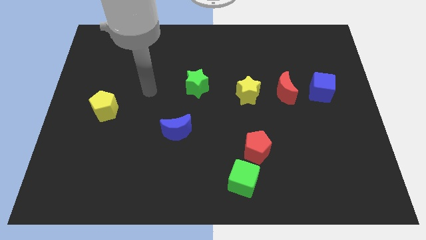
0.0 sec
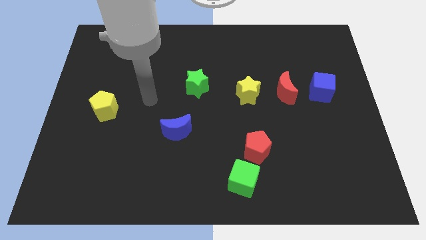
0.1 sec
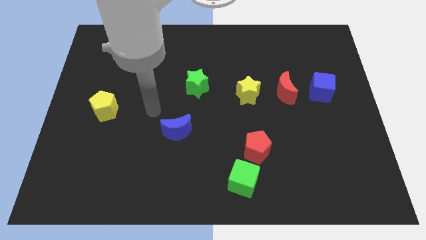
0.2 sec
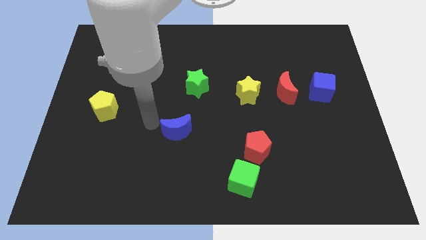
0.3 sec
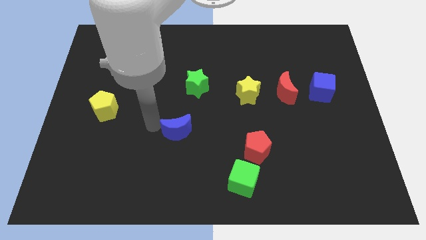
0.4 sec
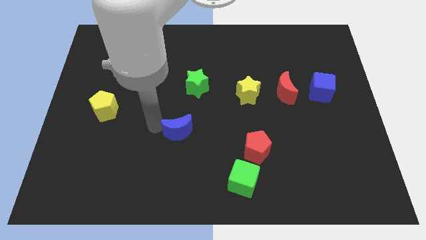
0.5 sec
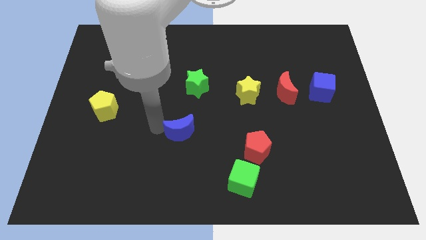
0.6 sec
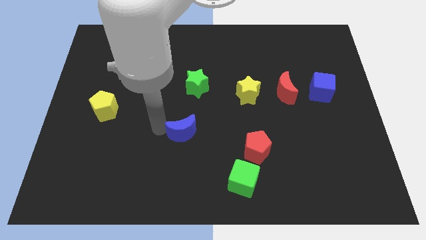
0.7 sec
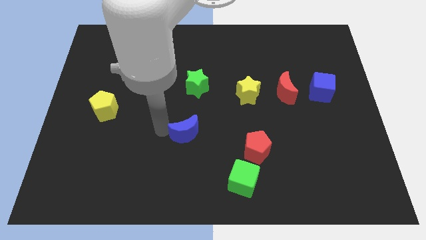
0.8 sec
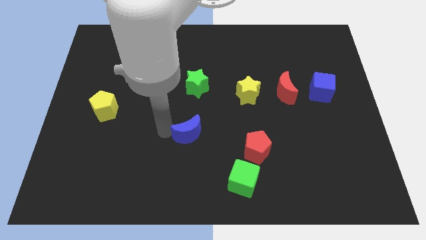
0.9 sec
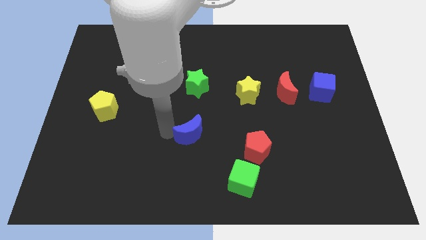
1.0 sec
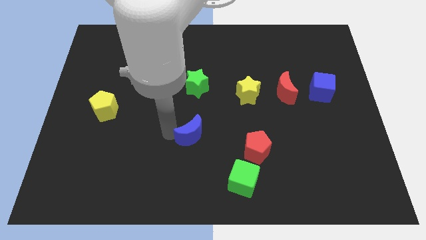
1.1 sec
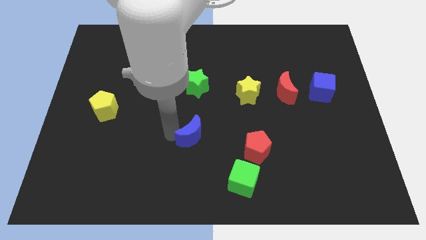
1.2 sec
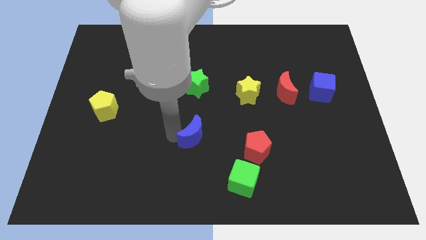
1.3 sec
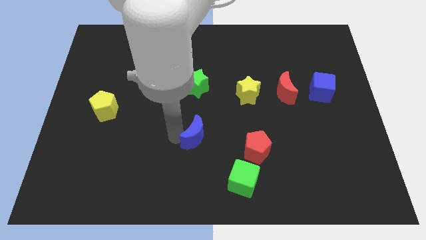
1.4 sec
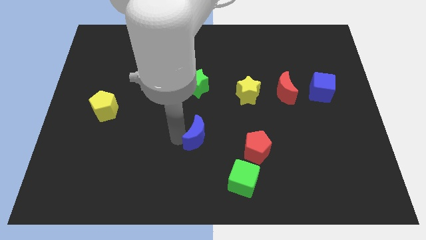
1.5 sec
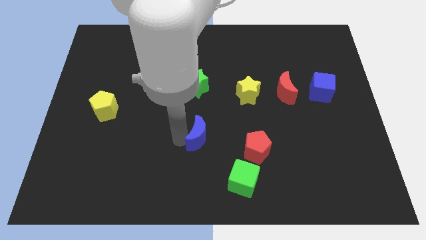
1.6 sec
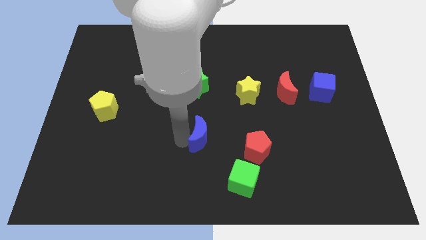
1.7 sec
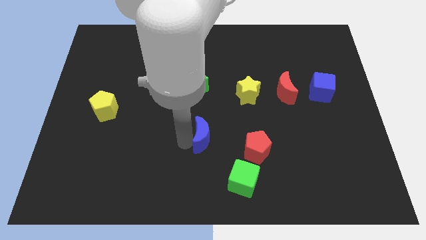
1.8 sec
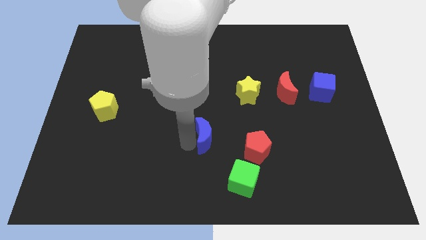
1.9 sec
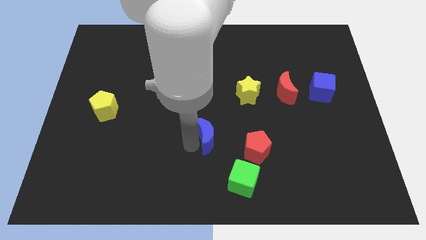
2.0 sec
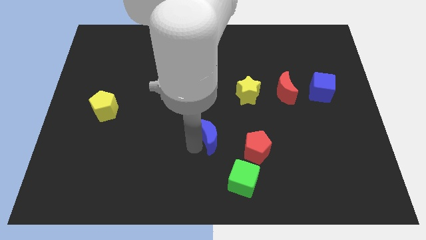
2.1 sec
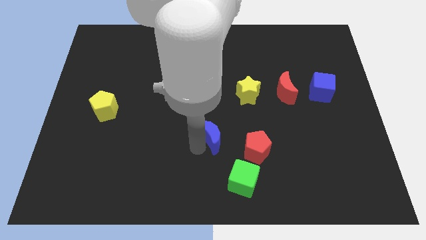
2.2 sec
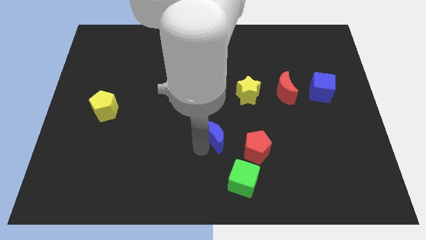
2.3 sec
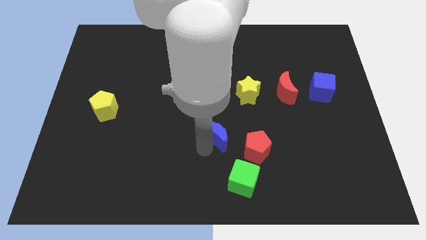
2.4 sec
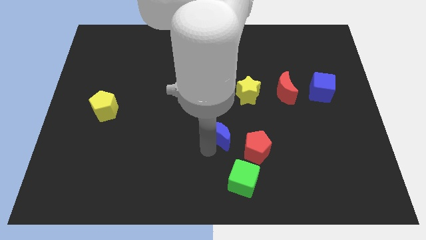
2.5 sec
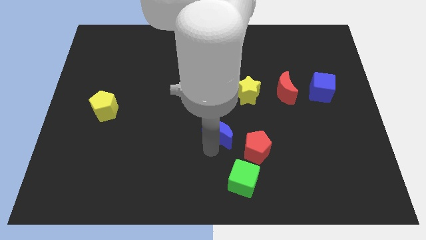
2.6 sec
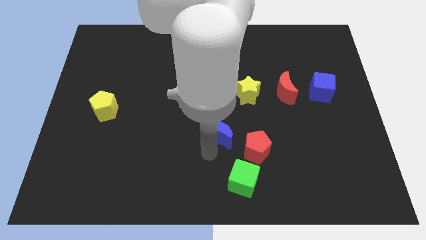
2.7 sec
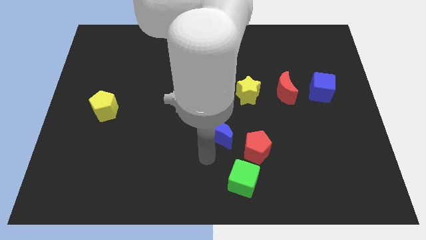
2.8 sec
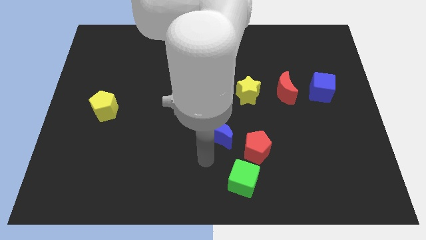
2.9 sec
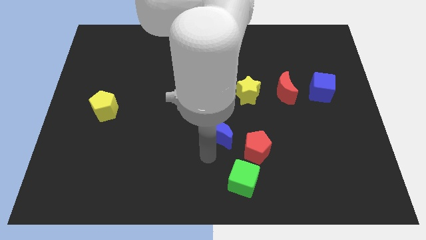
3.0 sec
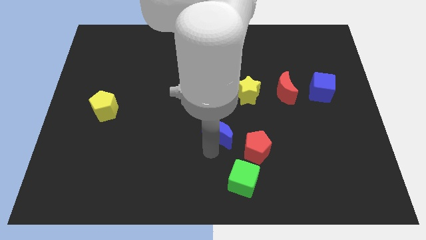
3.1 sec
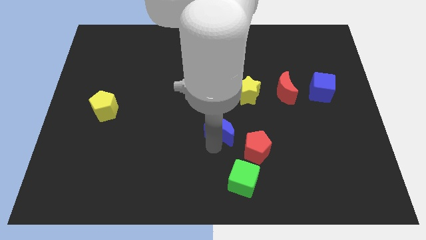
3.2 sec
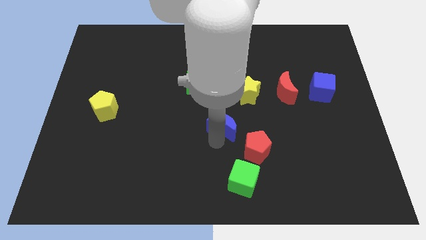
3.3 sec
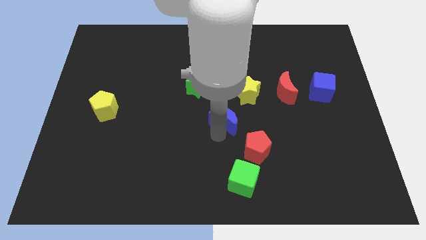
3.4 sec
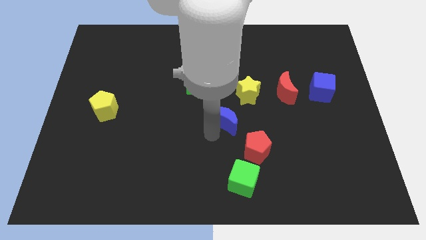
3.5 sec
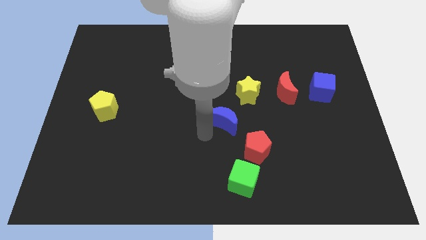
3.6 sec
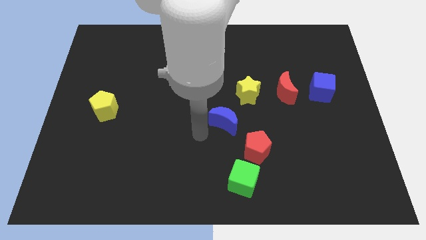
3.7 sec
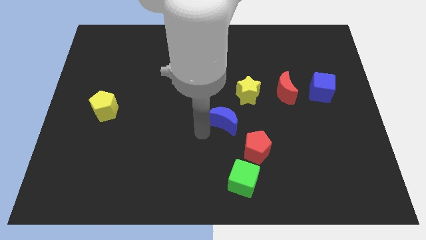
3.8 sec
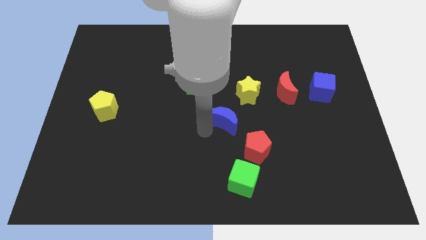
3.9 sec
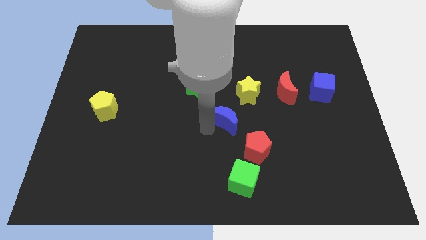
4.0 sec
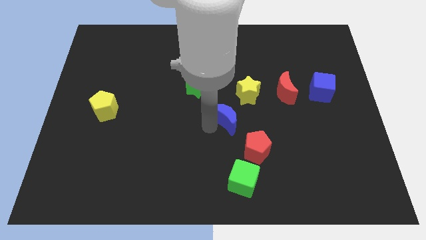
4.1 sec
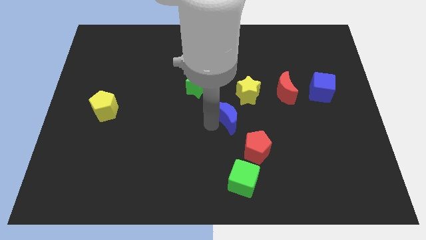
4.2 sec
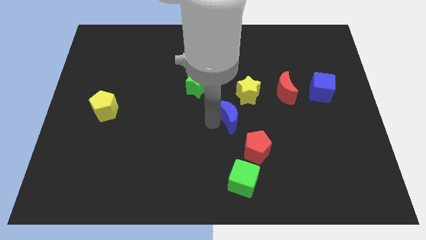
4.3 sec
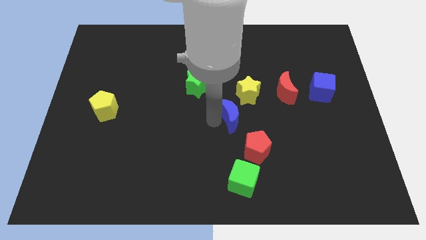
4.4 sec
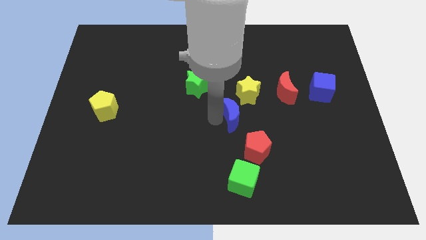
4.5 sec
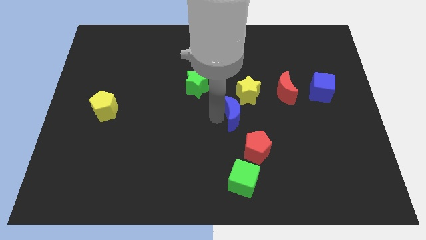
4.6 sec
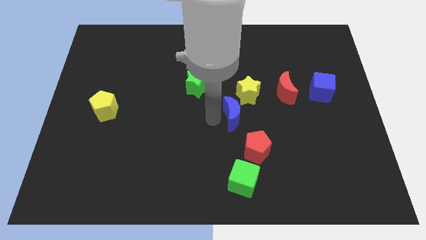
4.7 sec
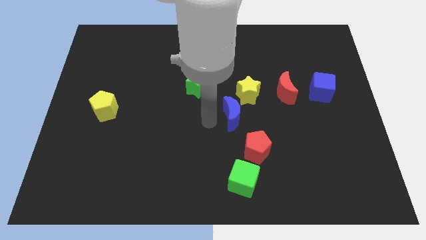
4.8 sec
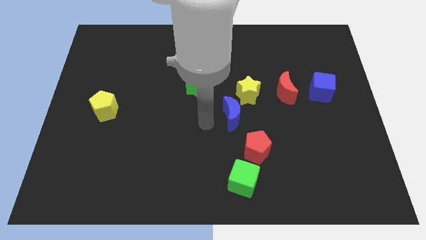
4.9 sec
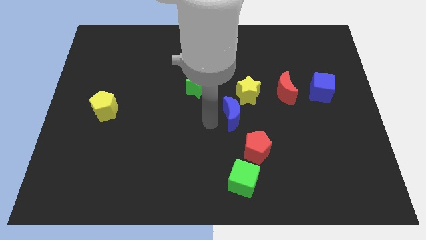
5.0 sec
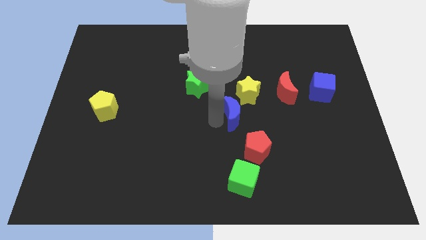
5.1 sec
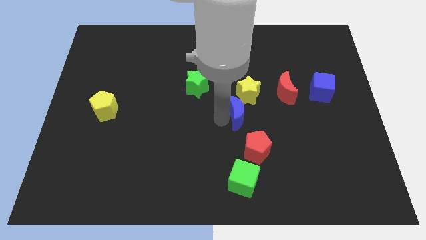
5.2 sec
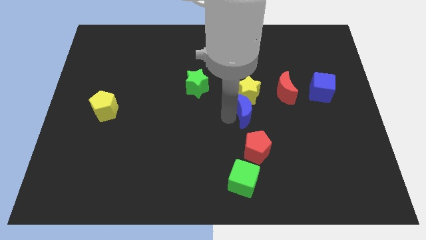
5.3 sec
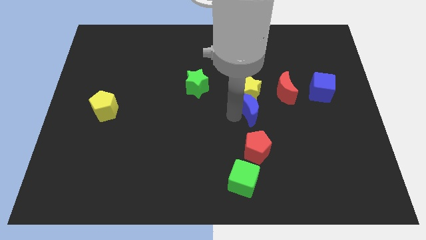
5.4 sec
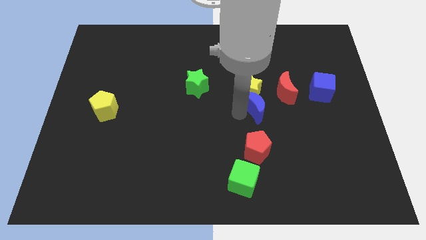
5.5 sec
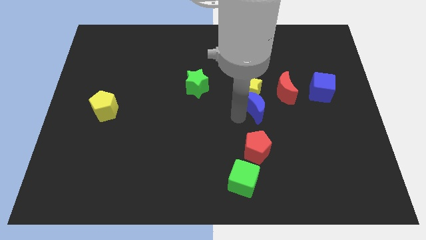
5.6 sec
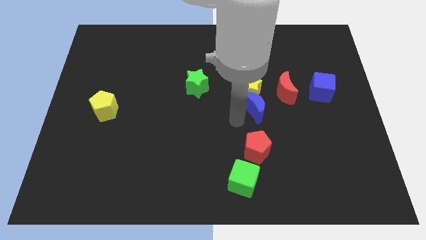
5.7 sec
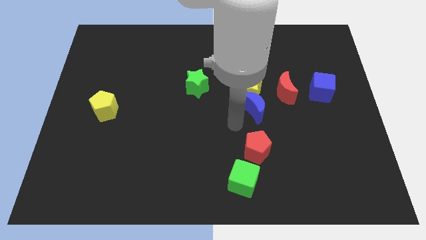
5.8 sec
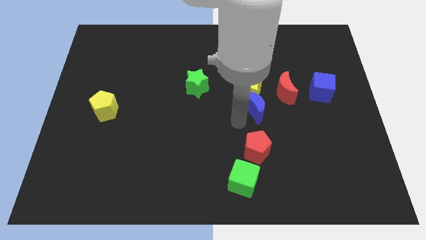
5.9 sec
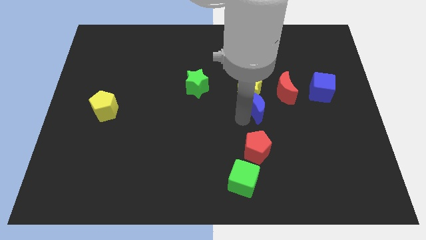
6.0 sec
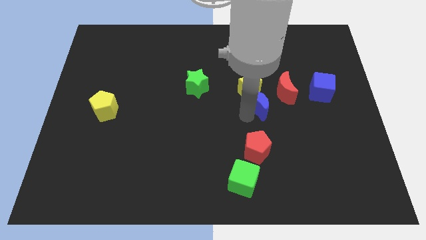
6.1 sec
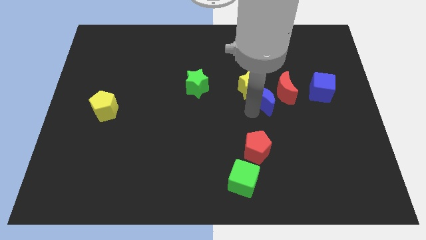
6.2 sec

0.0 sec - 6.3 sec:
move the blue moon to the left side of the blue cube

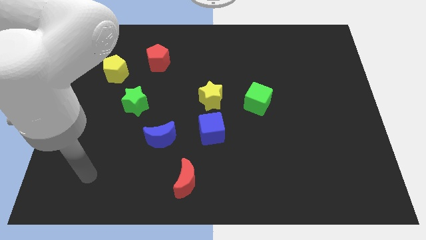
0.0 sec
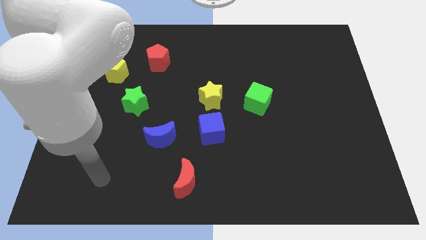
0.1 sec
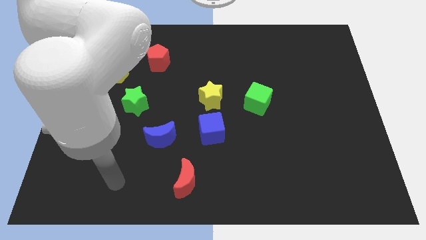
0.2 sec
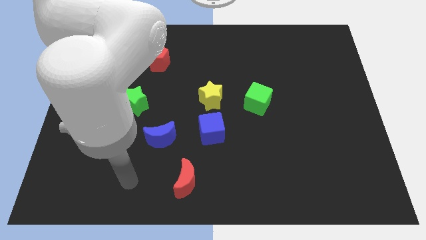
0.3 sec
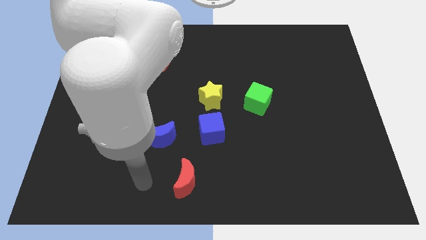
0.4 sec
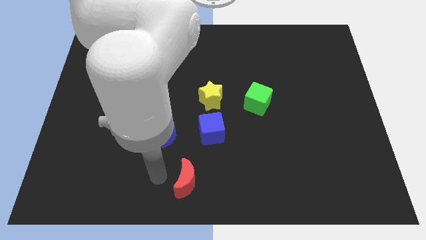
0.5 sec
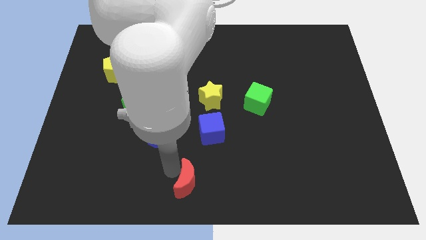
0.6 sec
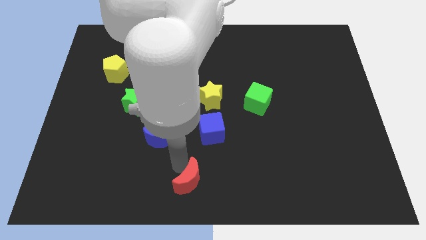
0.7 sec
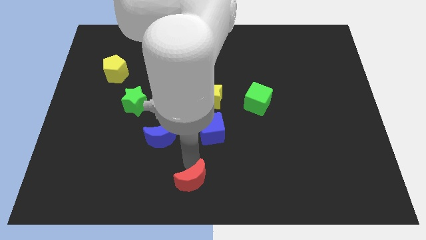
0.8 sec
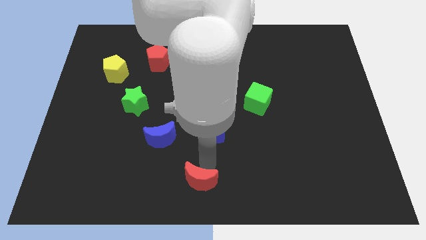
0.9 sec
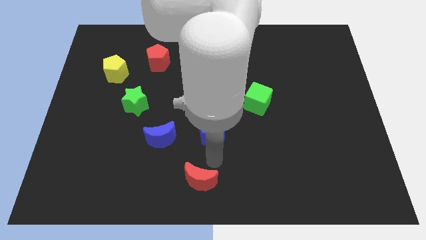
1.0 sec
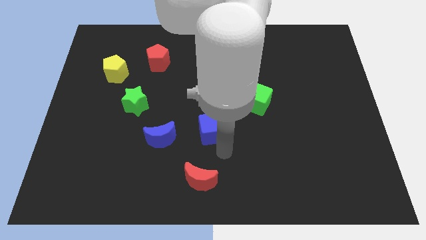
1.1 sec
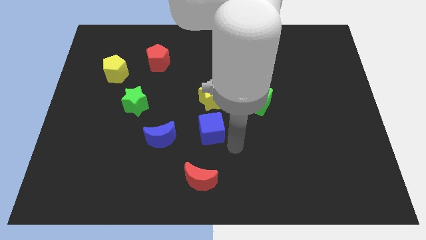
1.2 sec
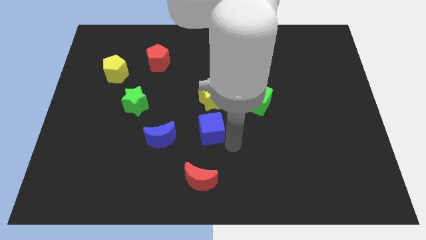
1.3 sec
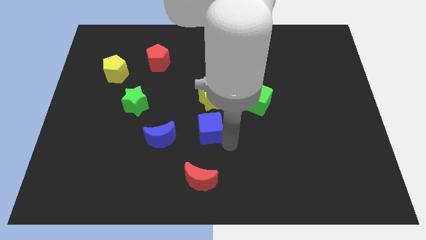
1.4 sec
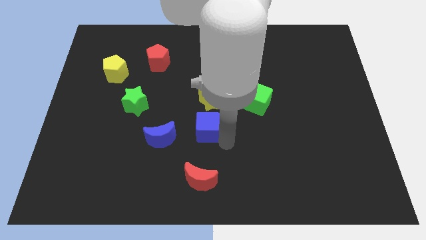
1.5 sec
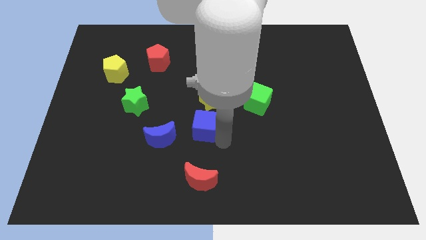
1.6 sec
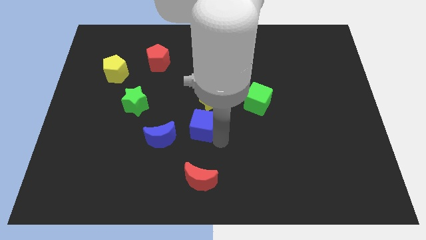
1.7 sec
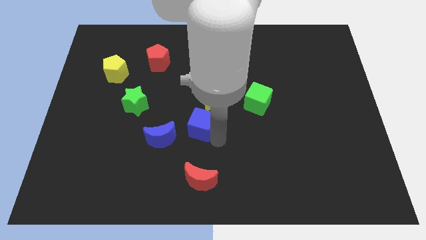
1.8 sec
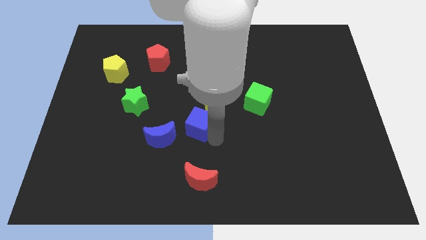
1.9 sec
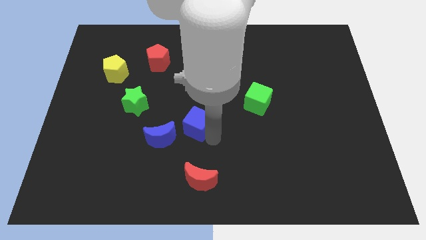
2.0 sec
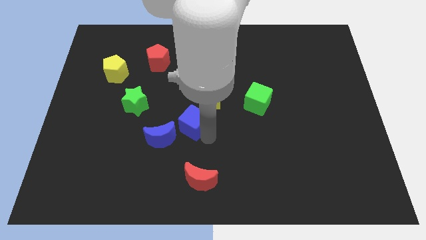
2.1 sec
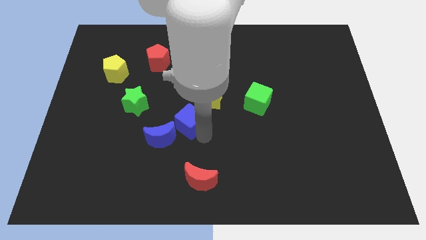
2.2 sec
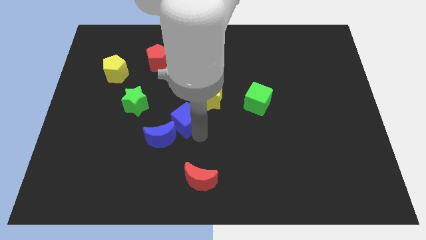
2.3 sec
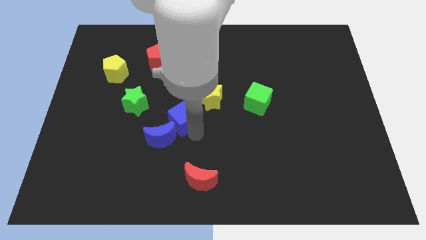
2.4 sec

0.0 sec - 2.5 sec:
slide the blue cube to the top side of the blue moon
